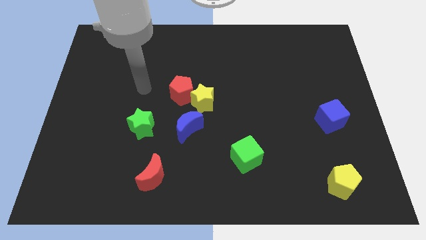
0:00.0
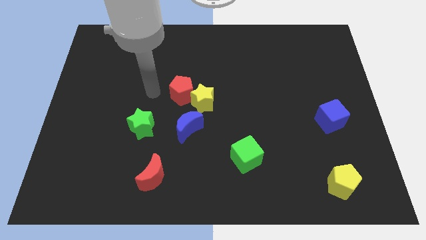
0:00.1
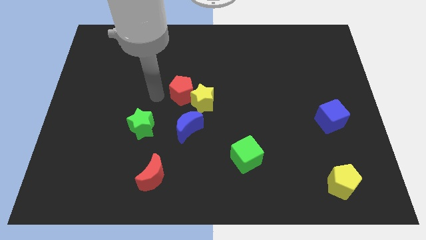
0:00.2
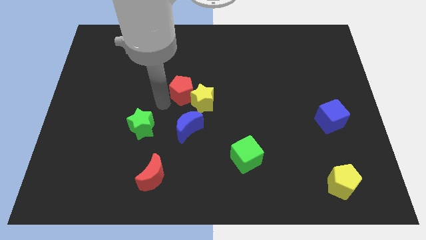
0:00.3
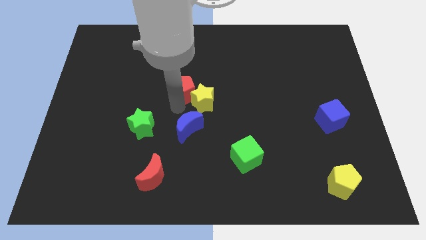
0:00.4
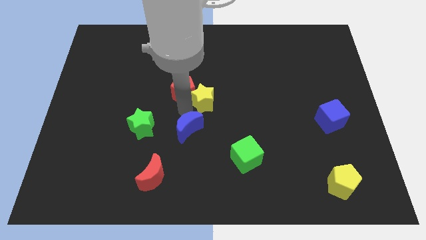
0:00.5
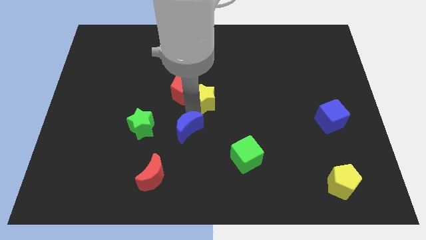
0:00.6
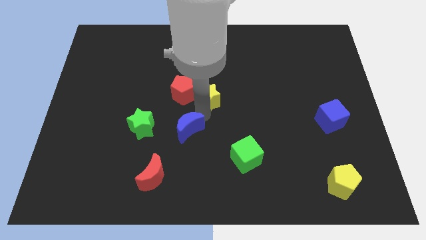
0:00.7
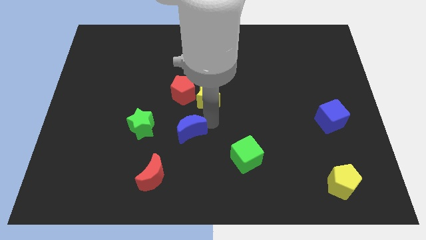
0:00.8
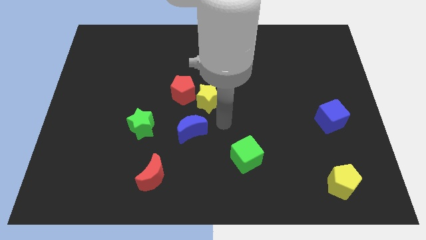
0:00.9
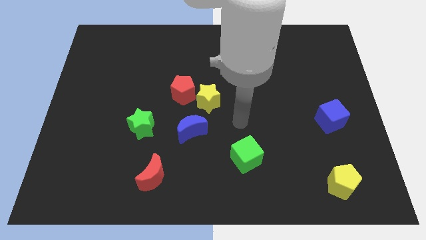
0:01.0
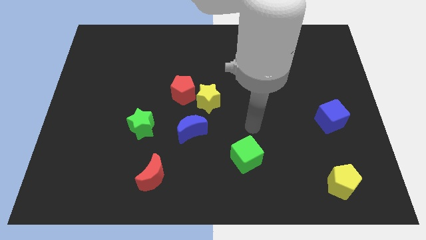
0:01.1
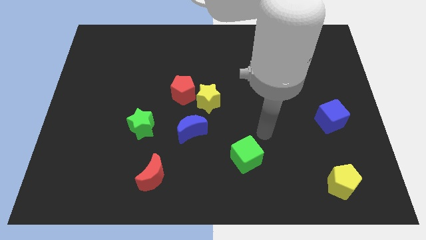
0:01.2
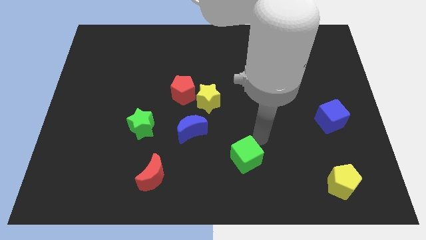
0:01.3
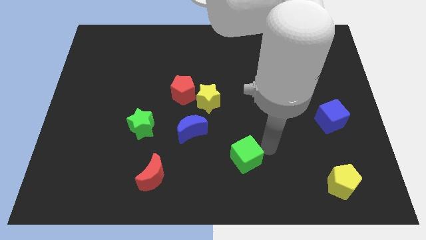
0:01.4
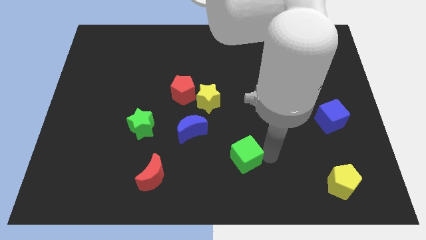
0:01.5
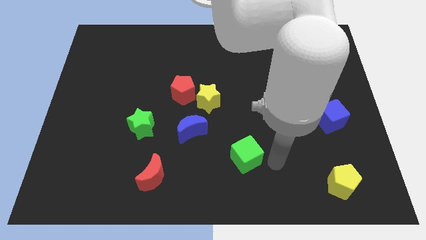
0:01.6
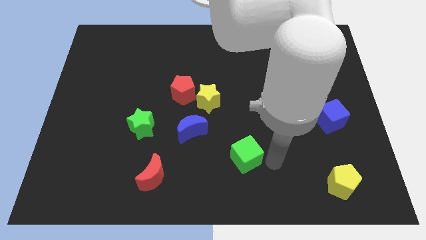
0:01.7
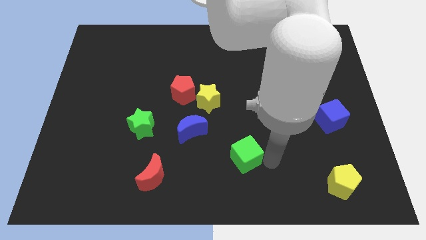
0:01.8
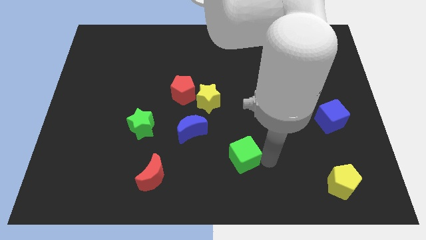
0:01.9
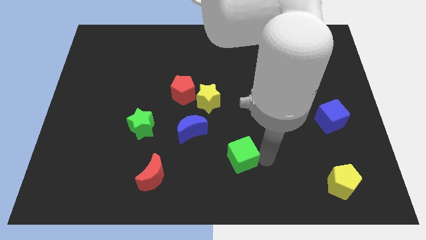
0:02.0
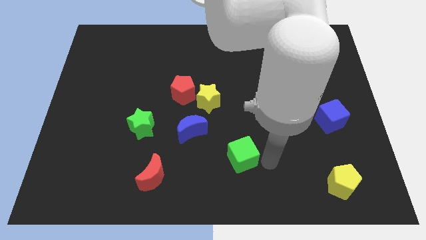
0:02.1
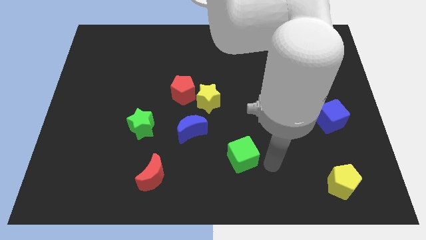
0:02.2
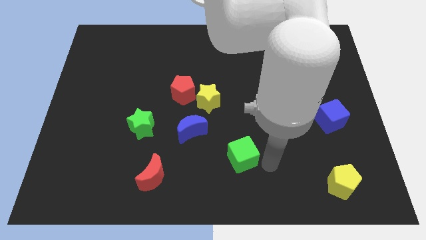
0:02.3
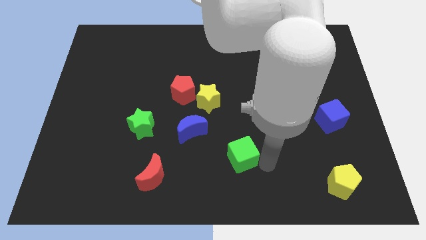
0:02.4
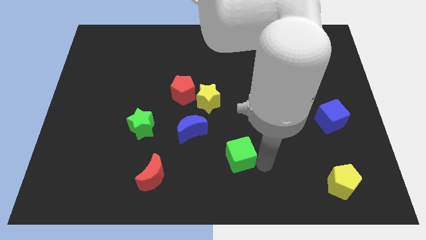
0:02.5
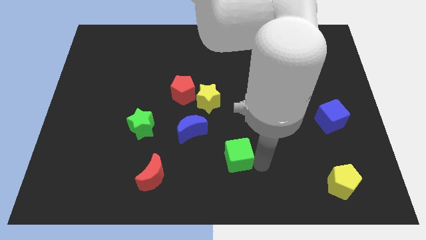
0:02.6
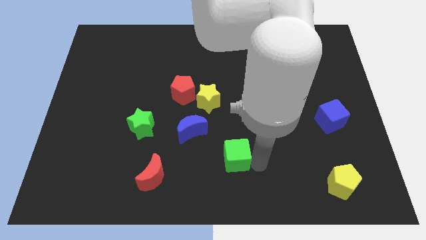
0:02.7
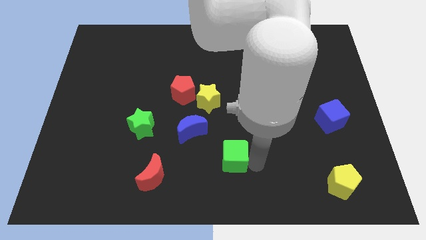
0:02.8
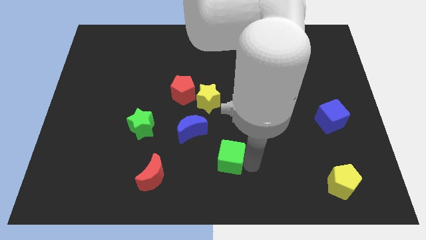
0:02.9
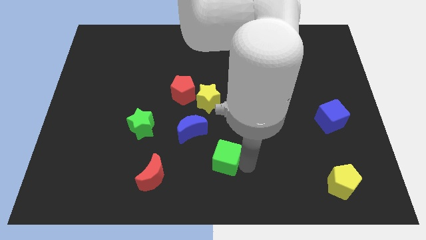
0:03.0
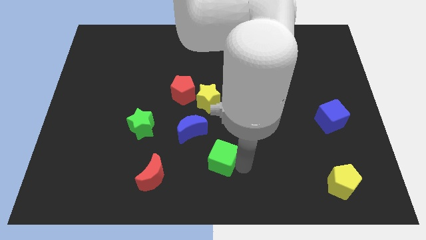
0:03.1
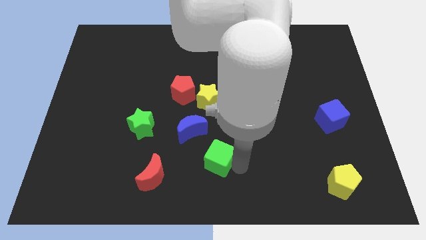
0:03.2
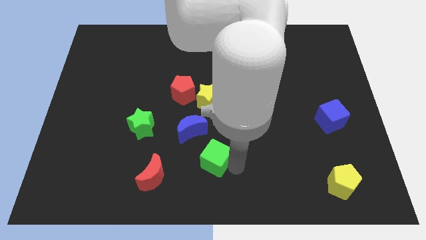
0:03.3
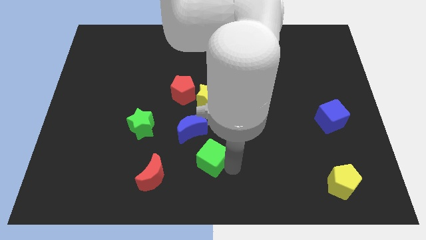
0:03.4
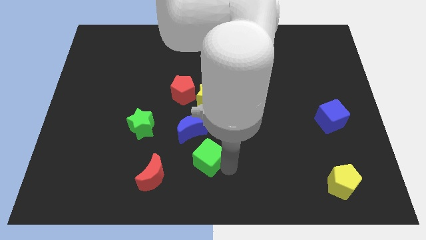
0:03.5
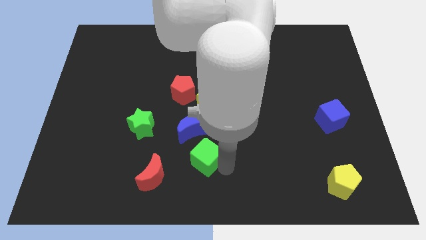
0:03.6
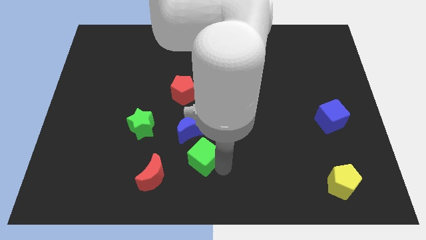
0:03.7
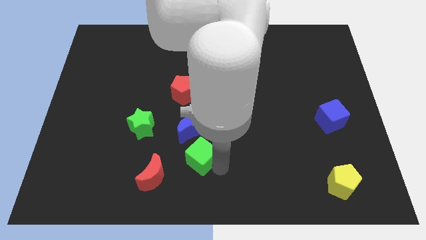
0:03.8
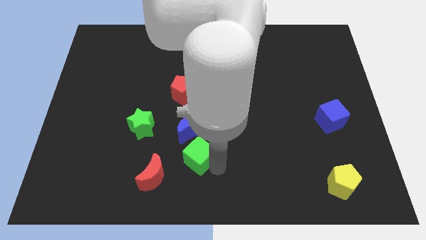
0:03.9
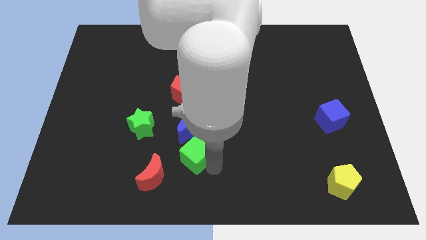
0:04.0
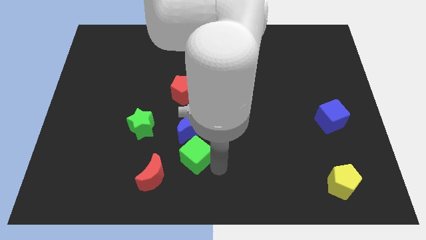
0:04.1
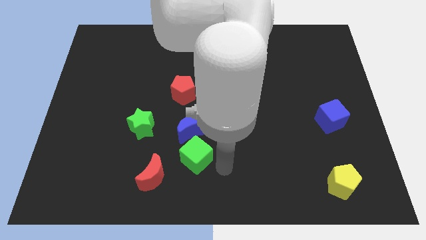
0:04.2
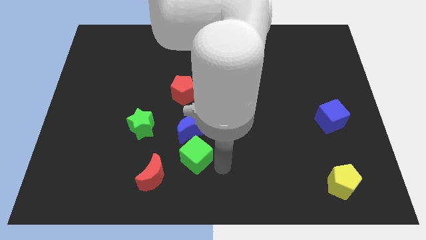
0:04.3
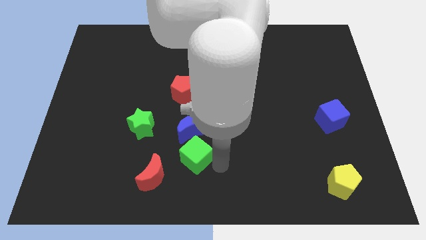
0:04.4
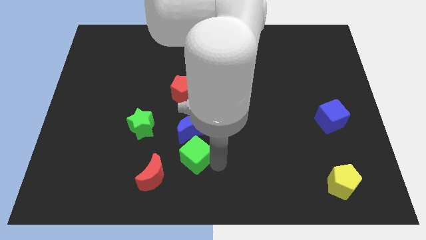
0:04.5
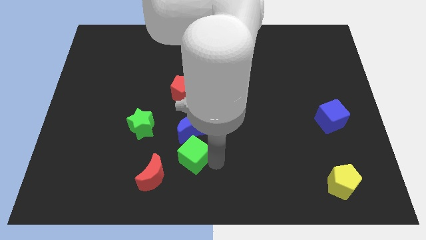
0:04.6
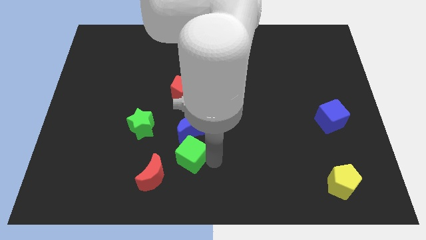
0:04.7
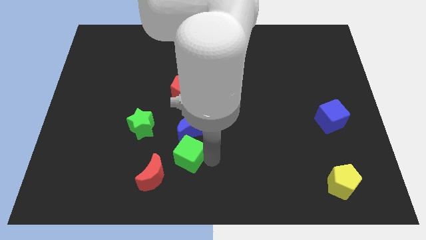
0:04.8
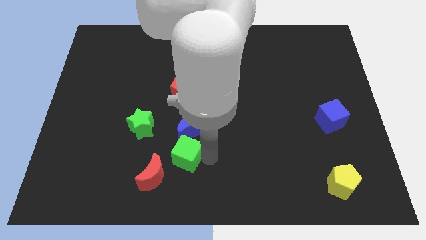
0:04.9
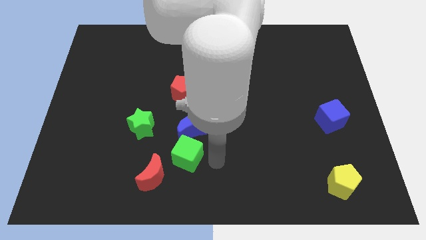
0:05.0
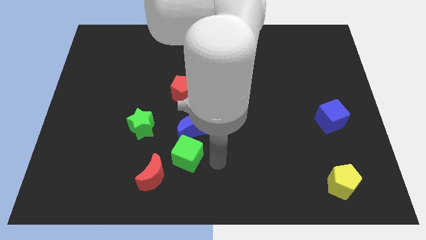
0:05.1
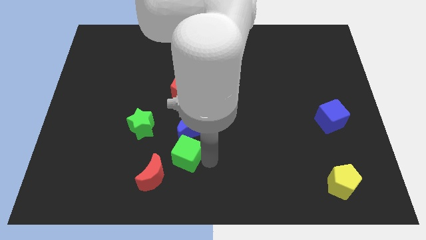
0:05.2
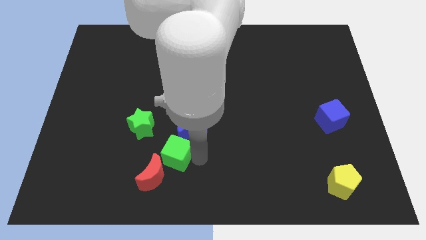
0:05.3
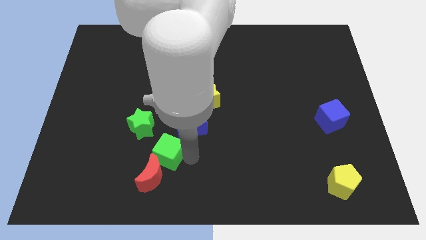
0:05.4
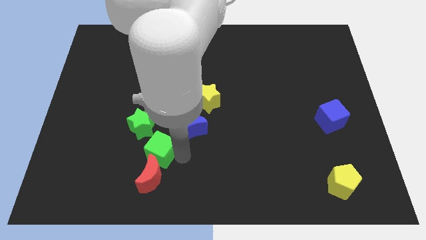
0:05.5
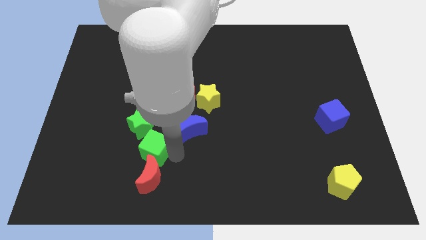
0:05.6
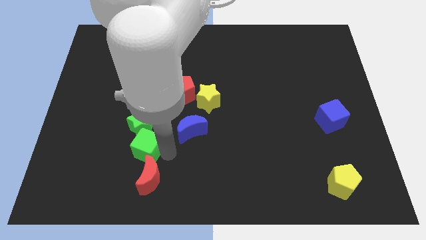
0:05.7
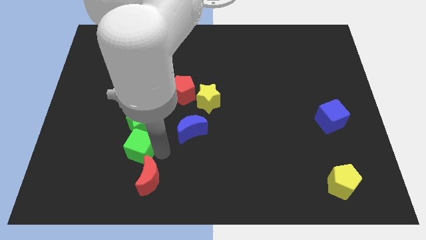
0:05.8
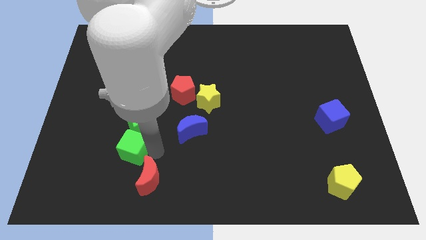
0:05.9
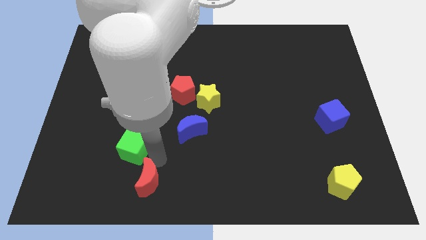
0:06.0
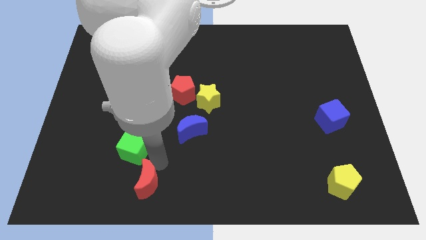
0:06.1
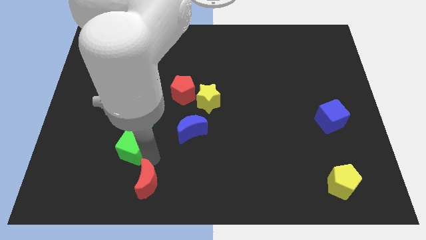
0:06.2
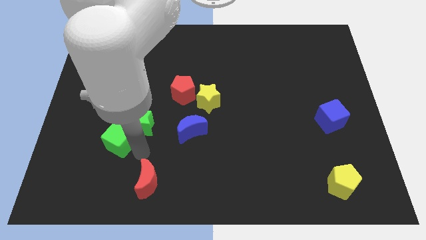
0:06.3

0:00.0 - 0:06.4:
push the green cube left of the green star
